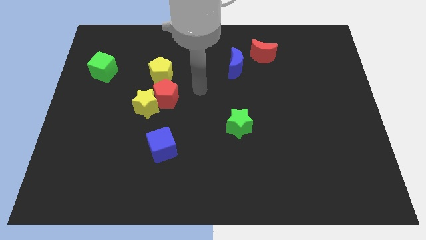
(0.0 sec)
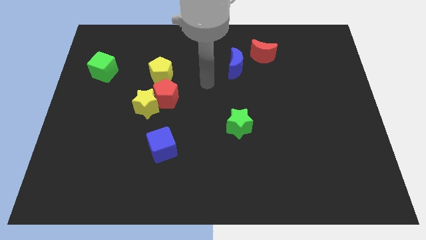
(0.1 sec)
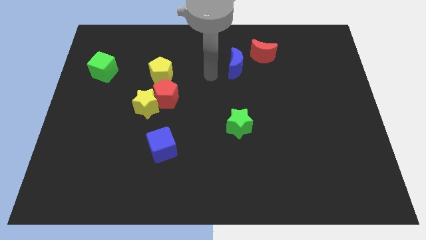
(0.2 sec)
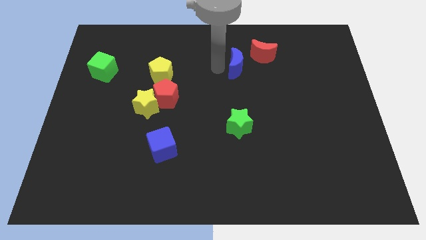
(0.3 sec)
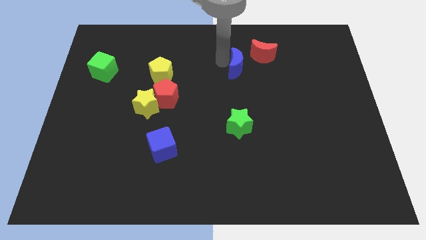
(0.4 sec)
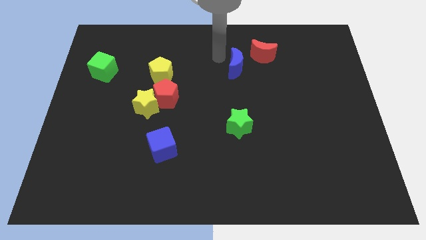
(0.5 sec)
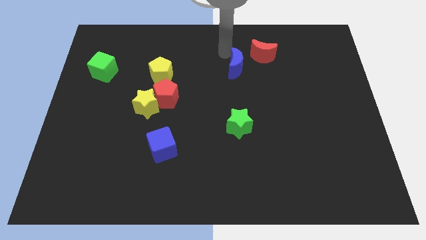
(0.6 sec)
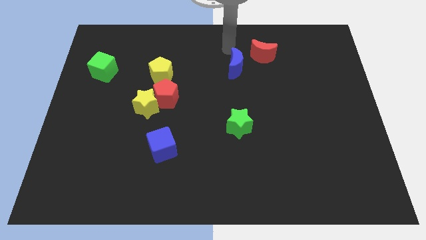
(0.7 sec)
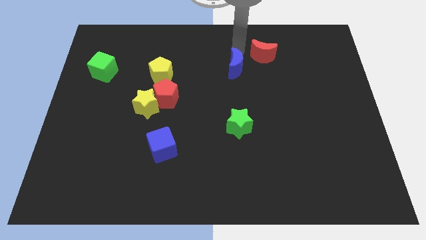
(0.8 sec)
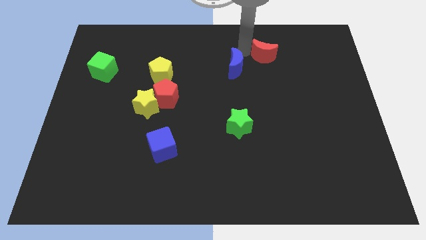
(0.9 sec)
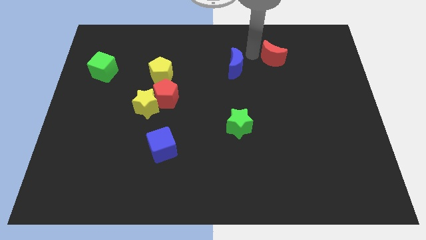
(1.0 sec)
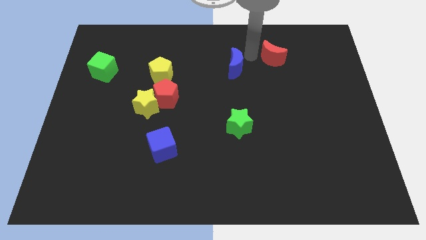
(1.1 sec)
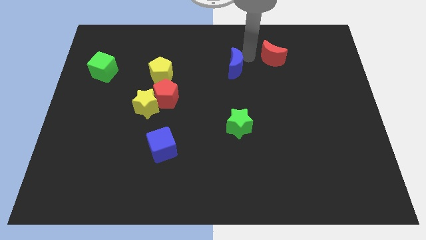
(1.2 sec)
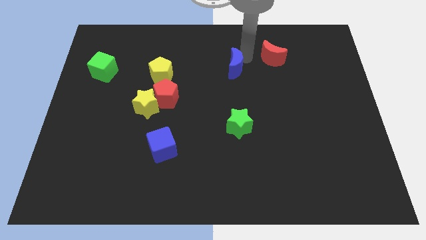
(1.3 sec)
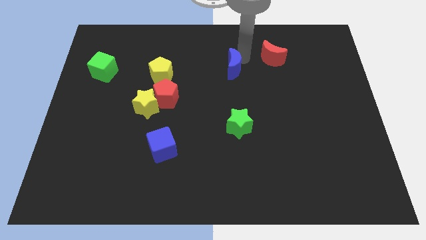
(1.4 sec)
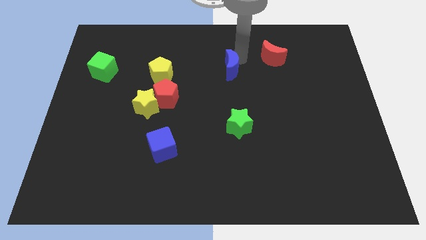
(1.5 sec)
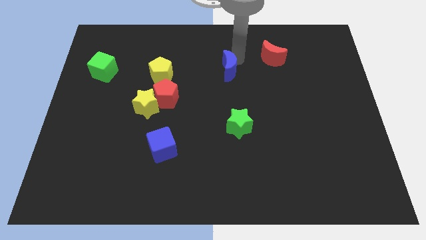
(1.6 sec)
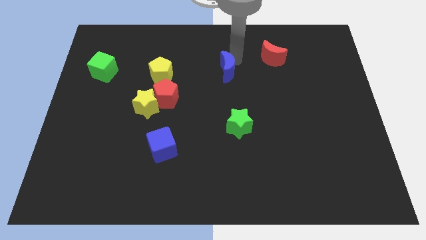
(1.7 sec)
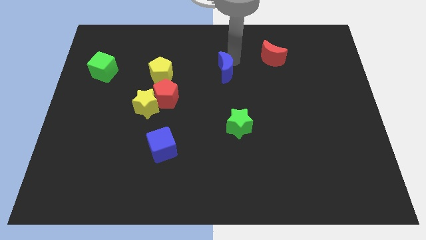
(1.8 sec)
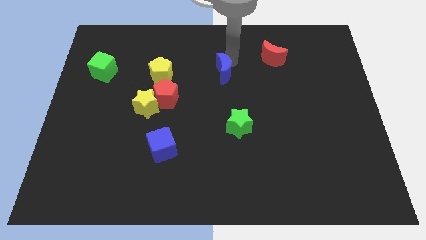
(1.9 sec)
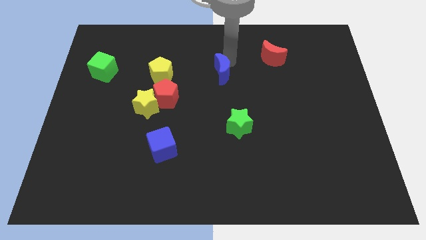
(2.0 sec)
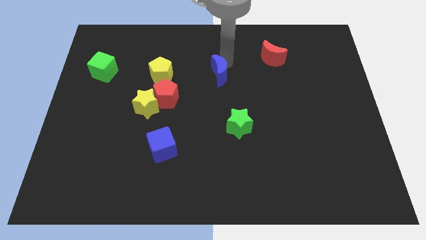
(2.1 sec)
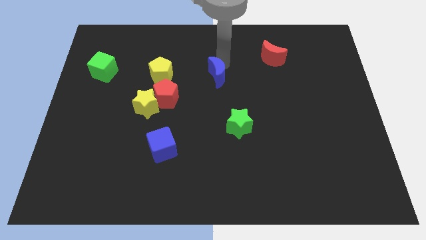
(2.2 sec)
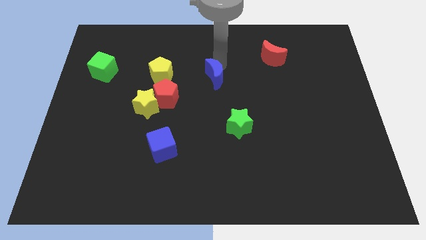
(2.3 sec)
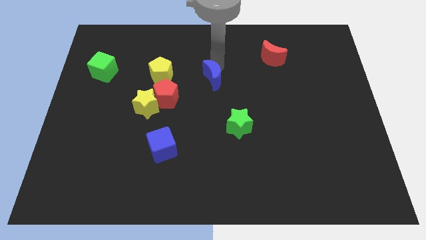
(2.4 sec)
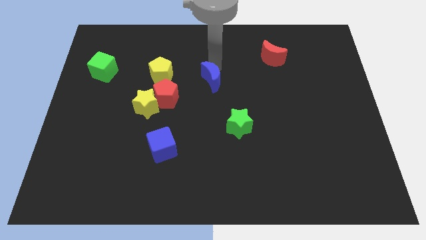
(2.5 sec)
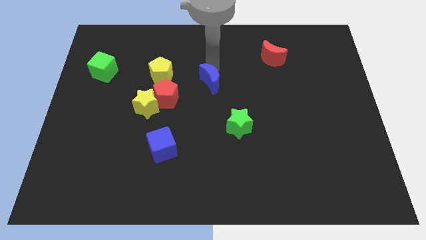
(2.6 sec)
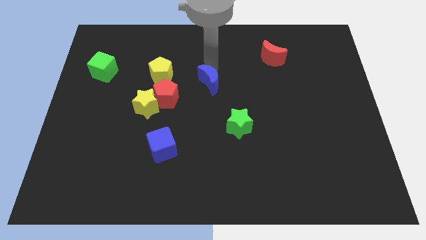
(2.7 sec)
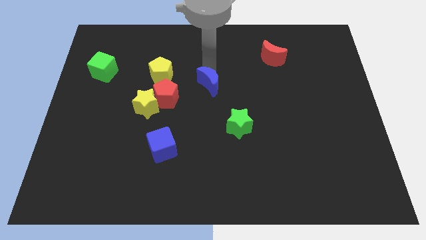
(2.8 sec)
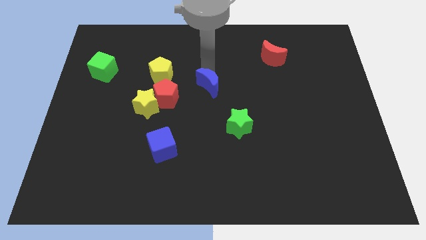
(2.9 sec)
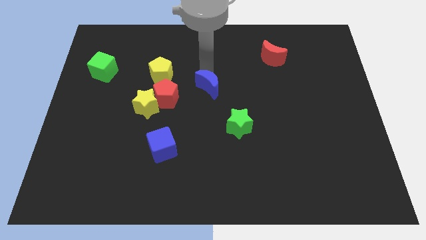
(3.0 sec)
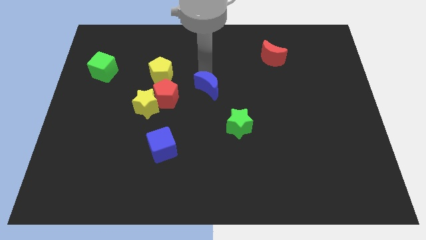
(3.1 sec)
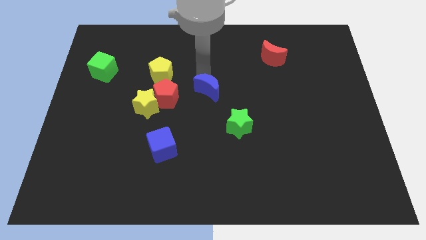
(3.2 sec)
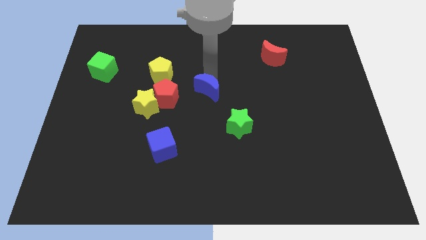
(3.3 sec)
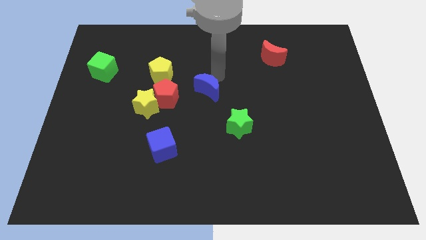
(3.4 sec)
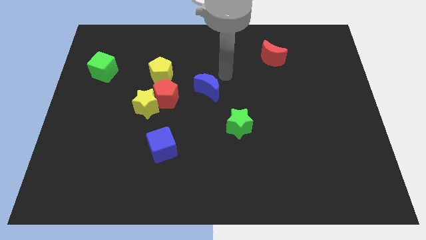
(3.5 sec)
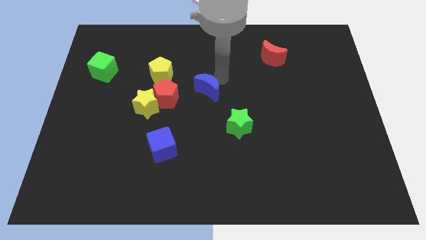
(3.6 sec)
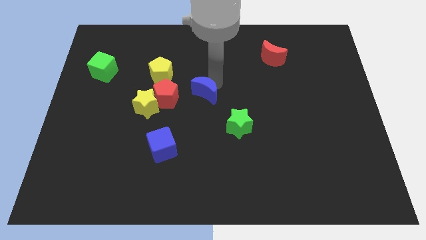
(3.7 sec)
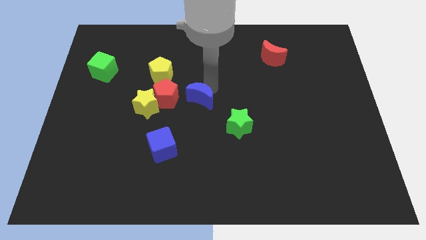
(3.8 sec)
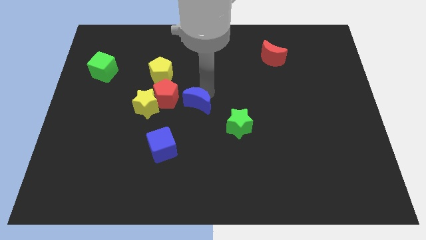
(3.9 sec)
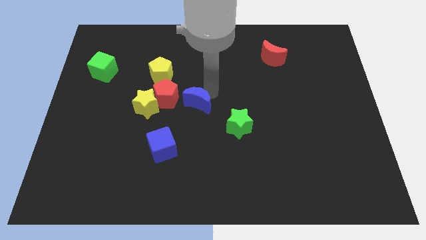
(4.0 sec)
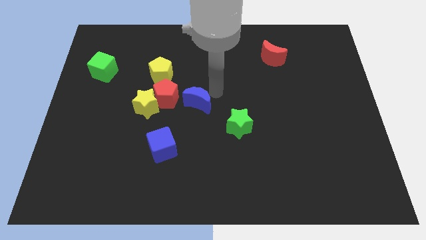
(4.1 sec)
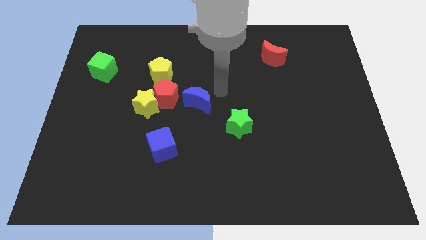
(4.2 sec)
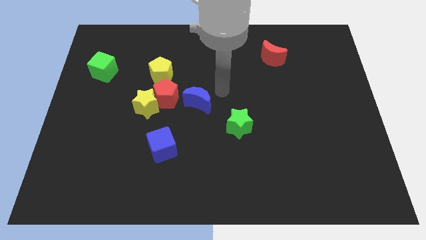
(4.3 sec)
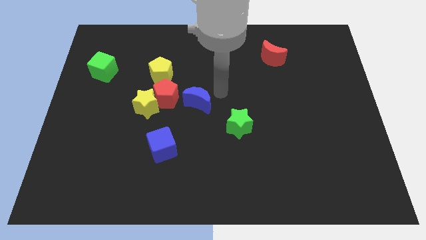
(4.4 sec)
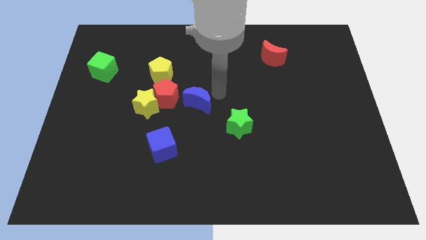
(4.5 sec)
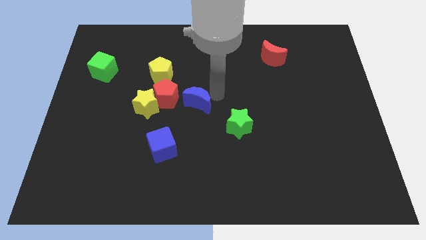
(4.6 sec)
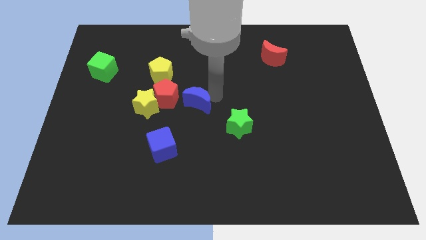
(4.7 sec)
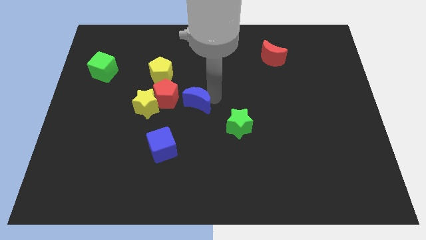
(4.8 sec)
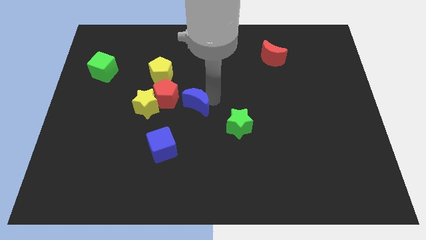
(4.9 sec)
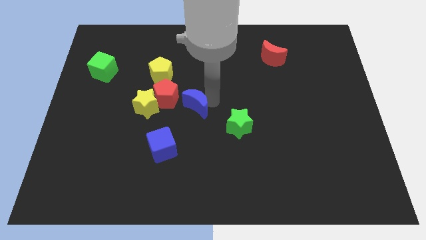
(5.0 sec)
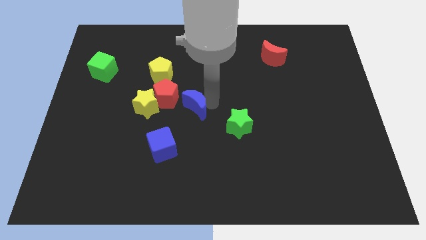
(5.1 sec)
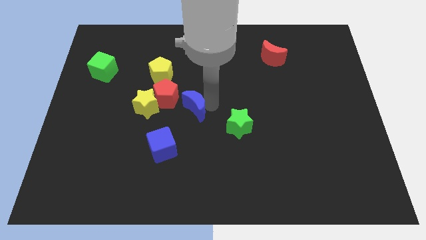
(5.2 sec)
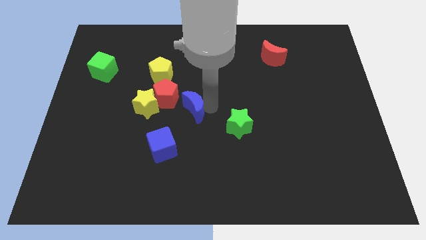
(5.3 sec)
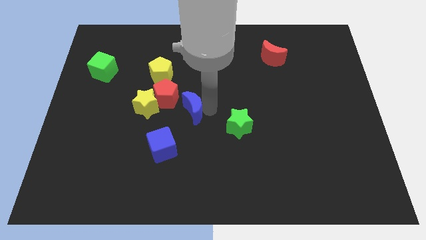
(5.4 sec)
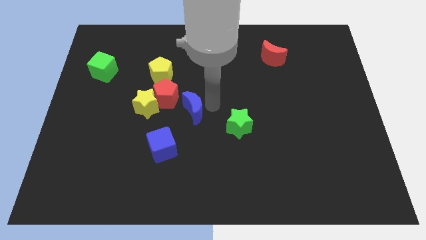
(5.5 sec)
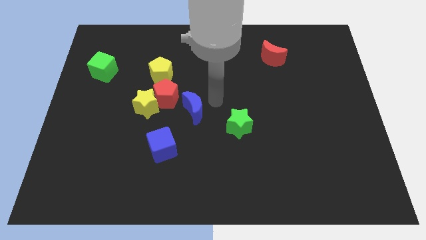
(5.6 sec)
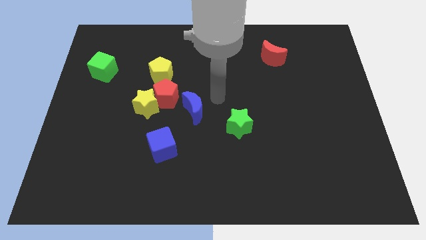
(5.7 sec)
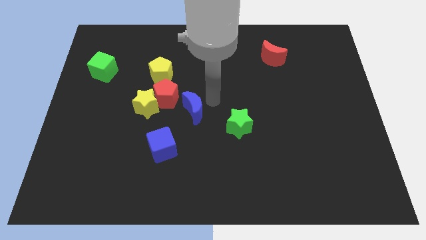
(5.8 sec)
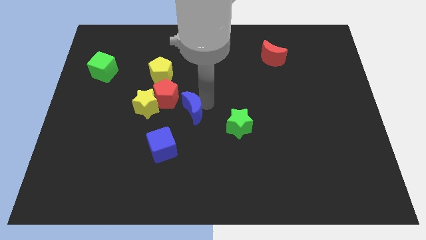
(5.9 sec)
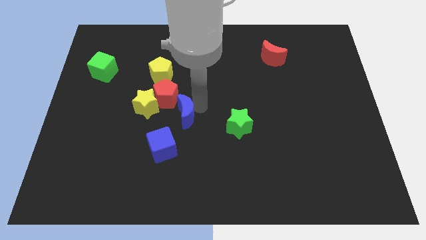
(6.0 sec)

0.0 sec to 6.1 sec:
put the blue moon diagonally down and to the right of the yellow star

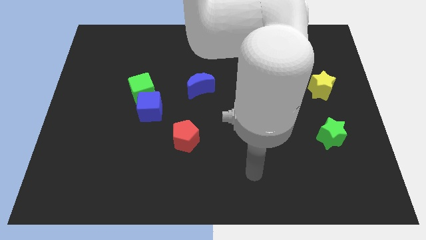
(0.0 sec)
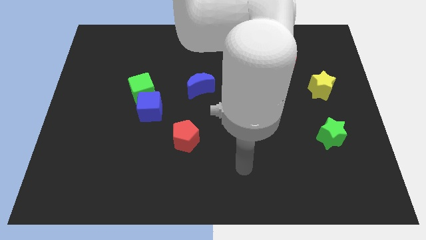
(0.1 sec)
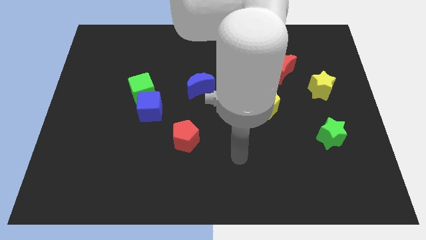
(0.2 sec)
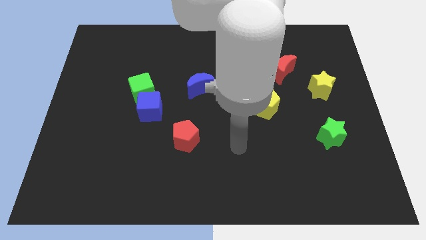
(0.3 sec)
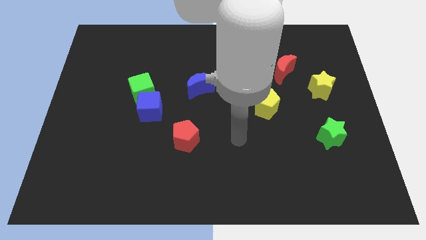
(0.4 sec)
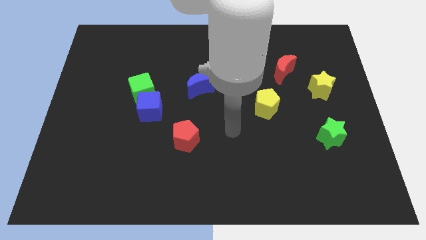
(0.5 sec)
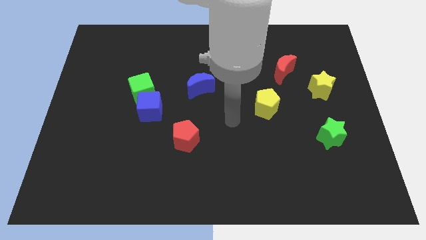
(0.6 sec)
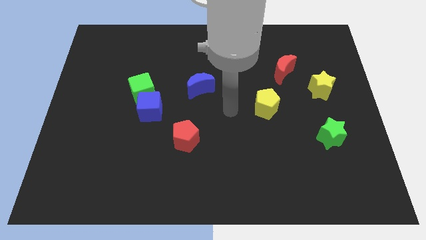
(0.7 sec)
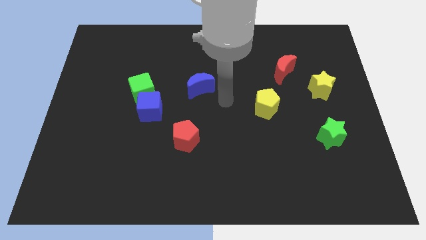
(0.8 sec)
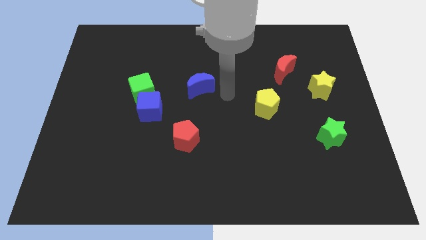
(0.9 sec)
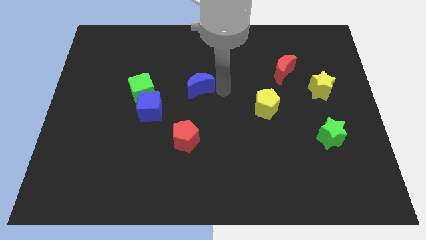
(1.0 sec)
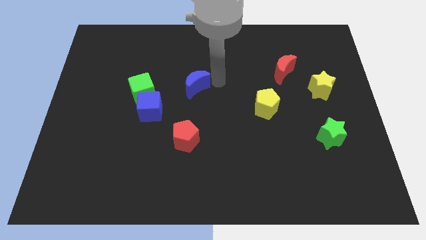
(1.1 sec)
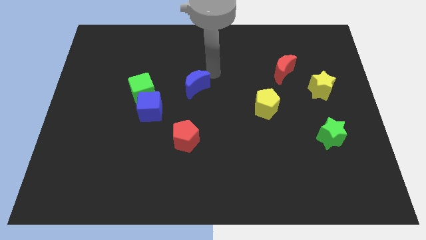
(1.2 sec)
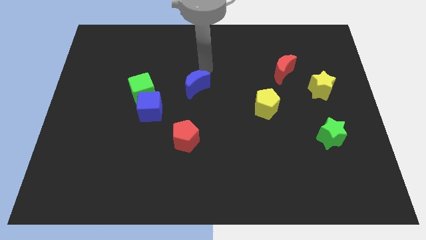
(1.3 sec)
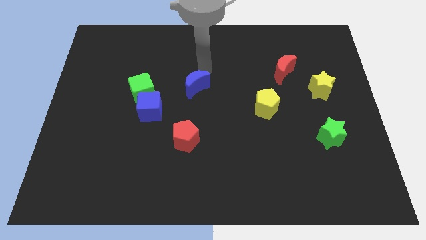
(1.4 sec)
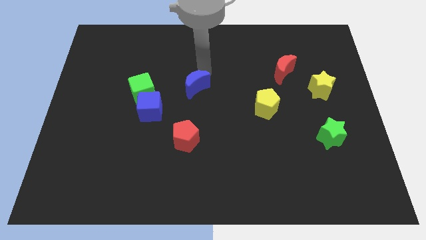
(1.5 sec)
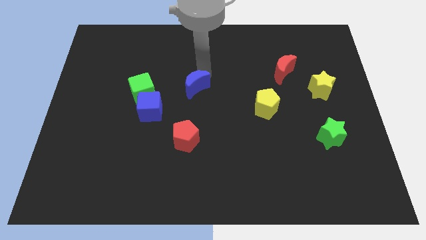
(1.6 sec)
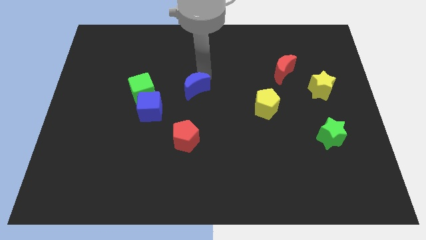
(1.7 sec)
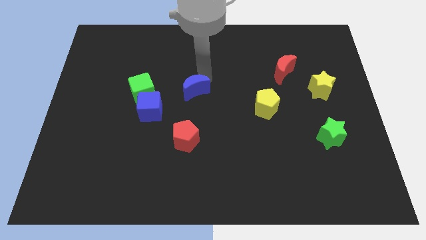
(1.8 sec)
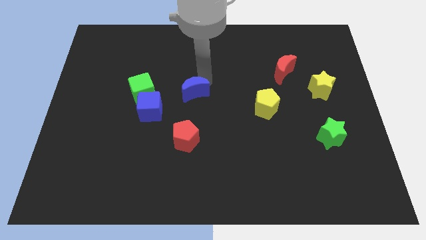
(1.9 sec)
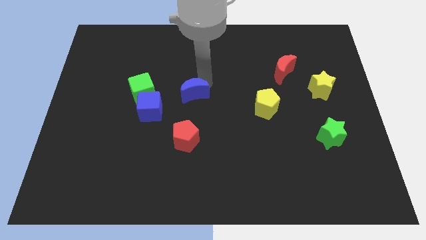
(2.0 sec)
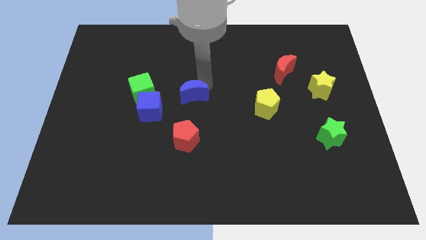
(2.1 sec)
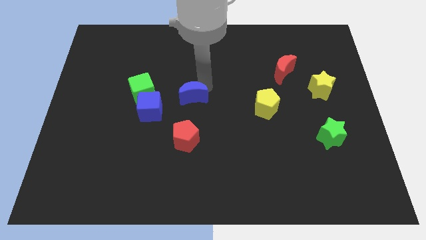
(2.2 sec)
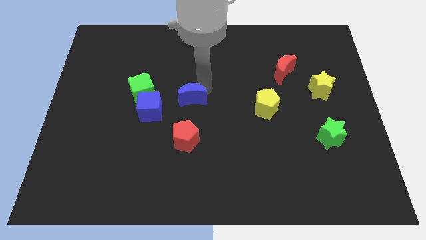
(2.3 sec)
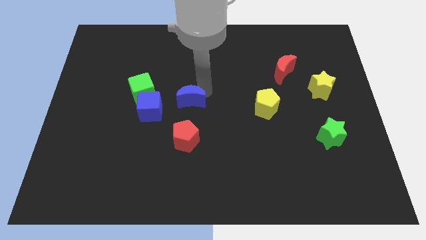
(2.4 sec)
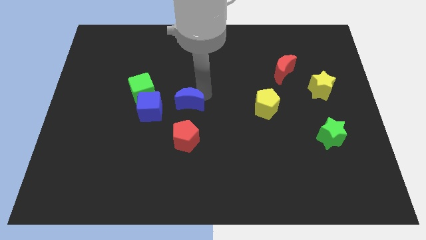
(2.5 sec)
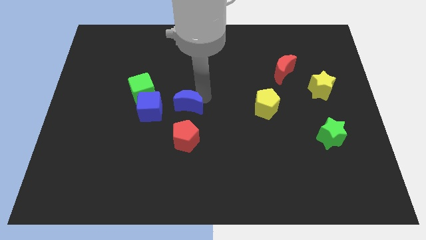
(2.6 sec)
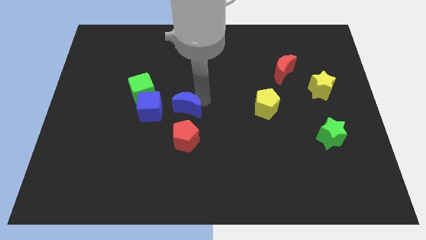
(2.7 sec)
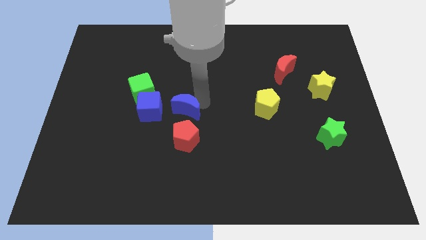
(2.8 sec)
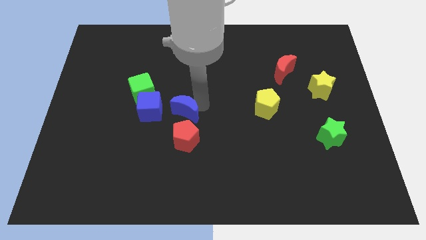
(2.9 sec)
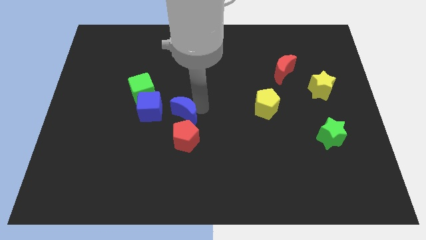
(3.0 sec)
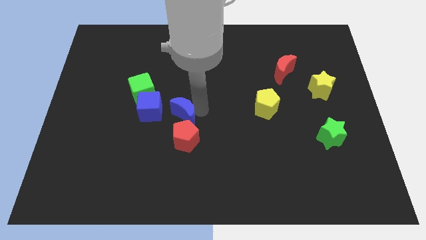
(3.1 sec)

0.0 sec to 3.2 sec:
slide the blue moon to the bottom right of the blue cube
